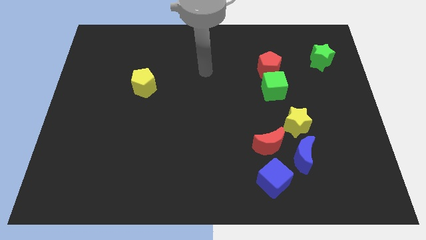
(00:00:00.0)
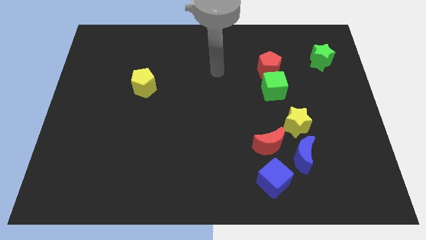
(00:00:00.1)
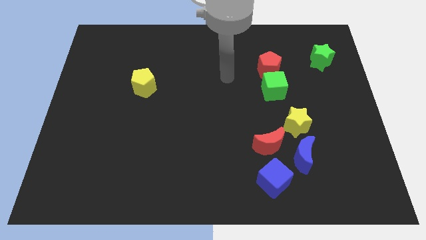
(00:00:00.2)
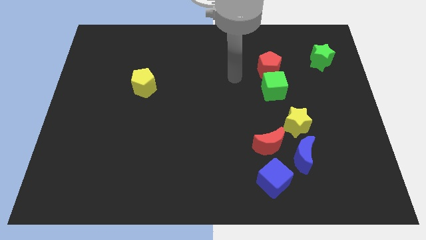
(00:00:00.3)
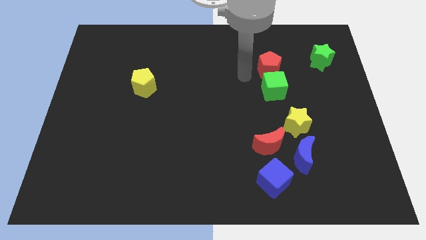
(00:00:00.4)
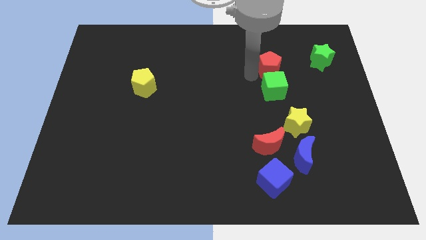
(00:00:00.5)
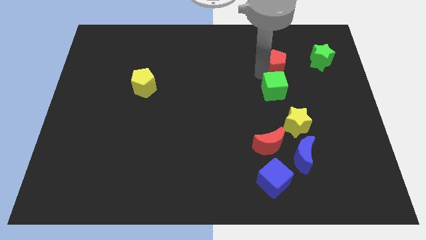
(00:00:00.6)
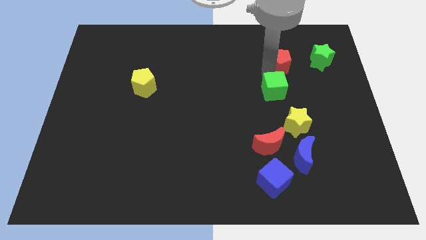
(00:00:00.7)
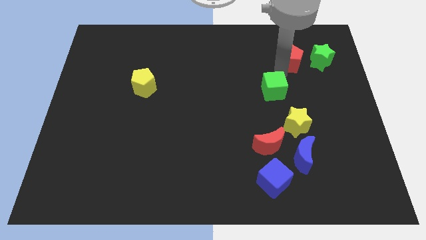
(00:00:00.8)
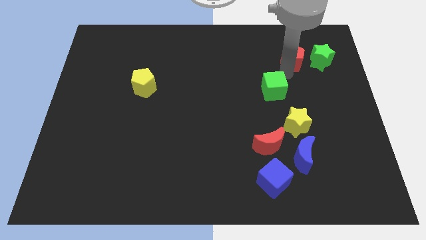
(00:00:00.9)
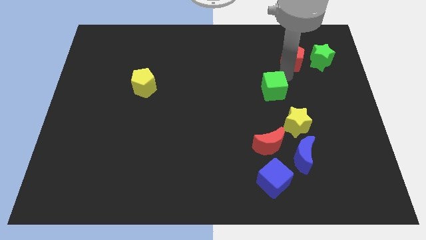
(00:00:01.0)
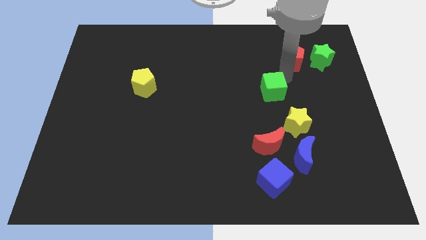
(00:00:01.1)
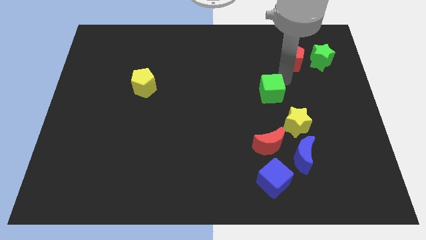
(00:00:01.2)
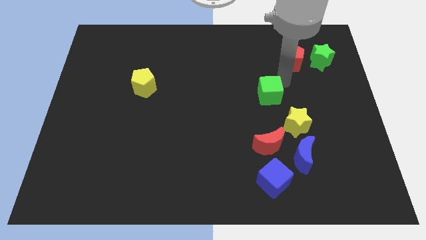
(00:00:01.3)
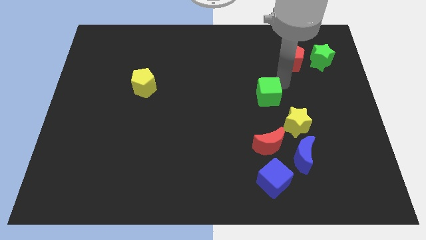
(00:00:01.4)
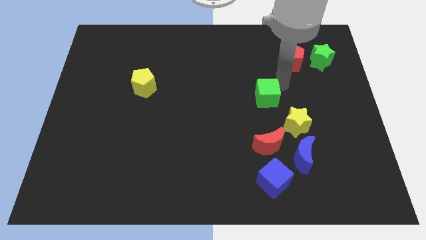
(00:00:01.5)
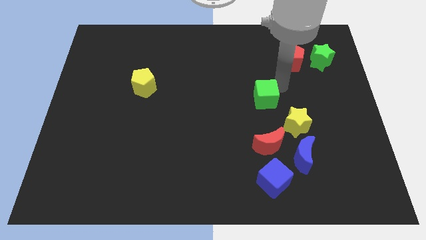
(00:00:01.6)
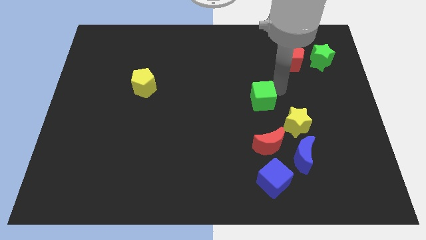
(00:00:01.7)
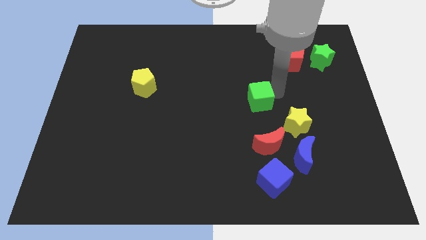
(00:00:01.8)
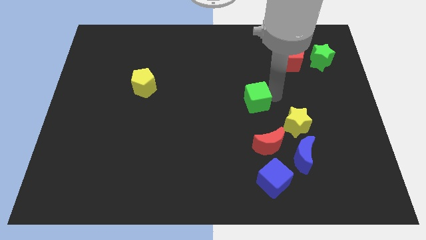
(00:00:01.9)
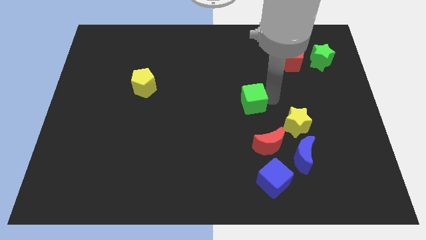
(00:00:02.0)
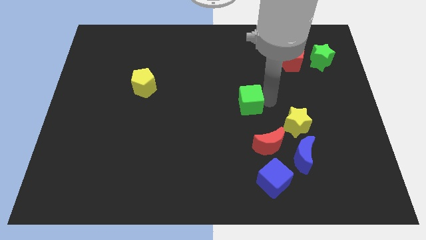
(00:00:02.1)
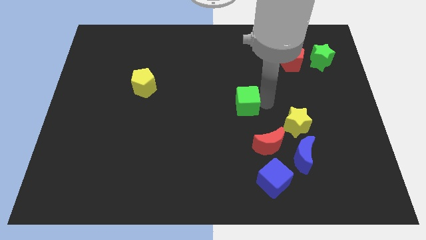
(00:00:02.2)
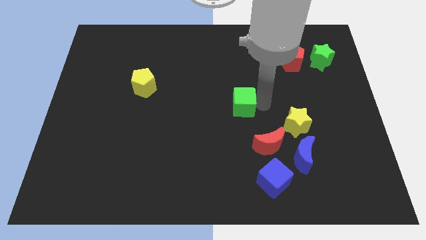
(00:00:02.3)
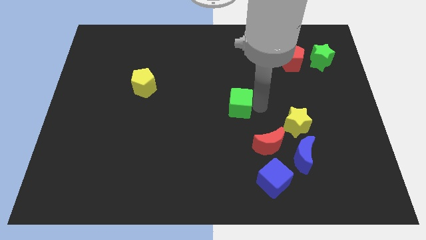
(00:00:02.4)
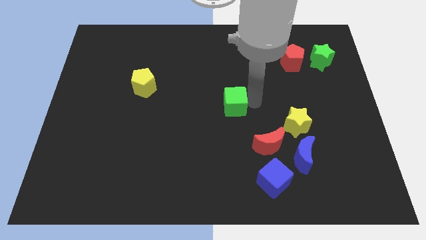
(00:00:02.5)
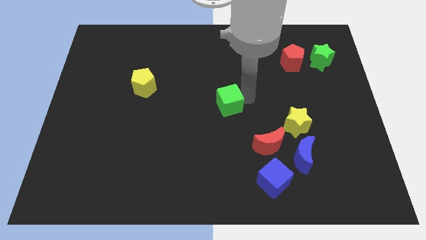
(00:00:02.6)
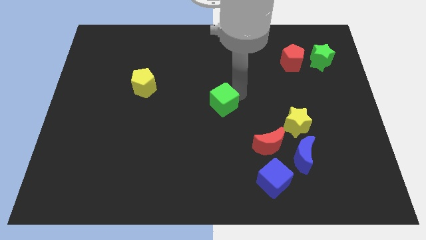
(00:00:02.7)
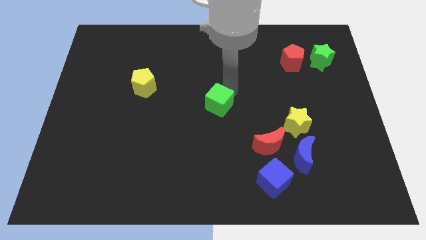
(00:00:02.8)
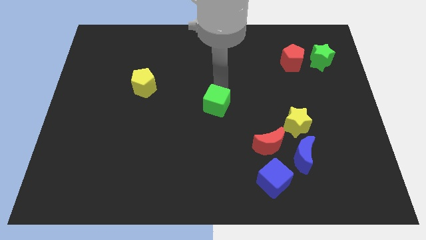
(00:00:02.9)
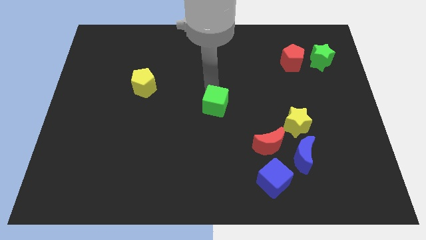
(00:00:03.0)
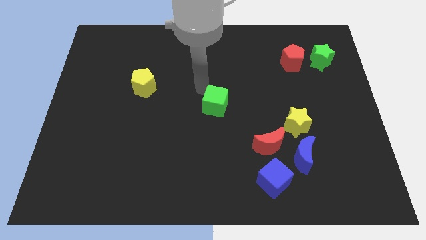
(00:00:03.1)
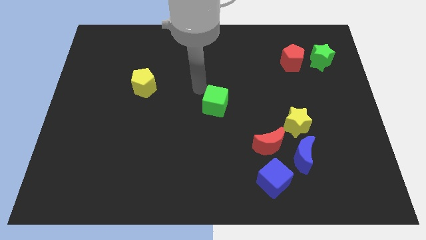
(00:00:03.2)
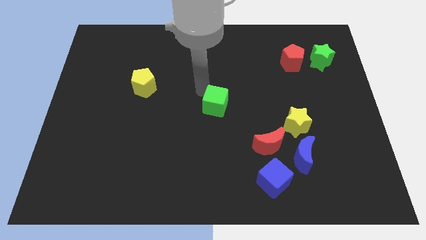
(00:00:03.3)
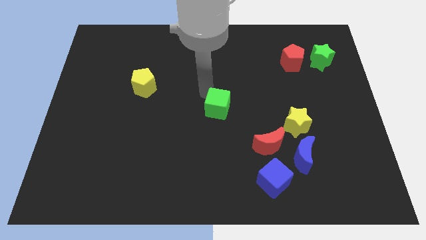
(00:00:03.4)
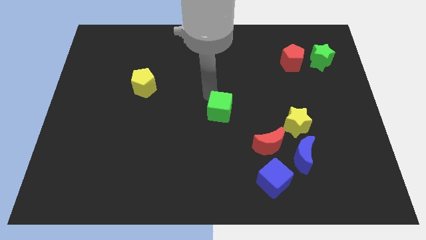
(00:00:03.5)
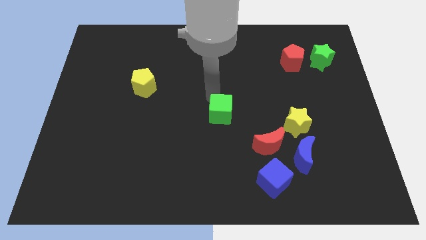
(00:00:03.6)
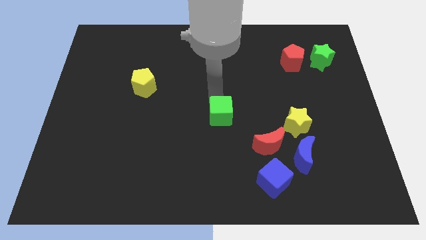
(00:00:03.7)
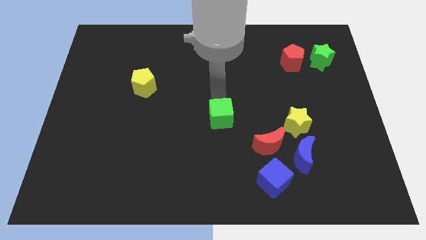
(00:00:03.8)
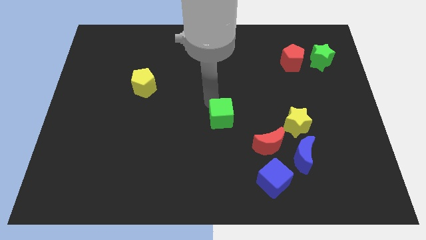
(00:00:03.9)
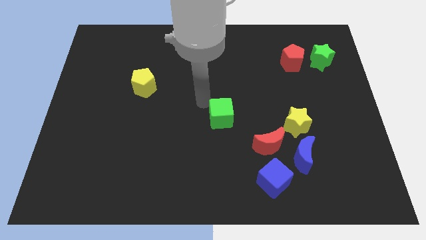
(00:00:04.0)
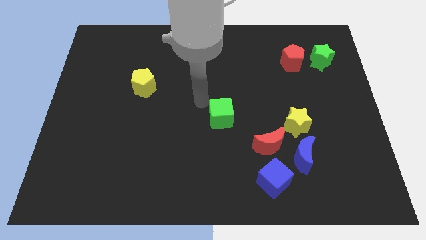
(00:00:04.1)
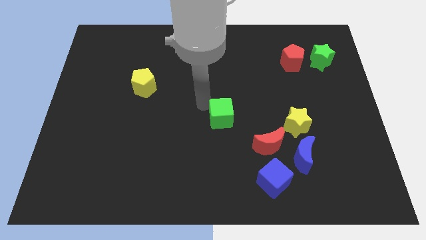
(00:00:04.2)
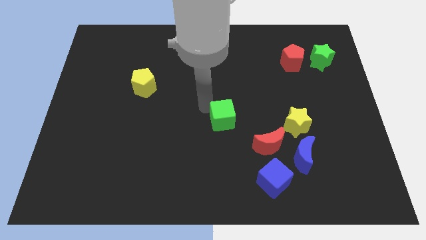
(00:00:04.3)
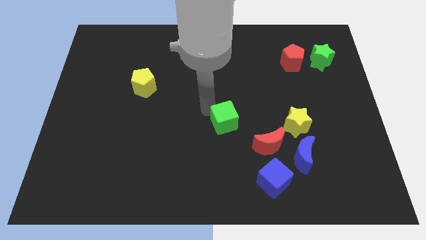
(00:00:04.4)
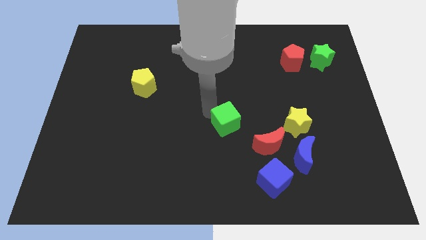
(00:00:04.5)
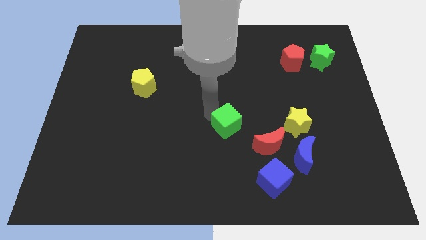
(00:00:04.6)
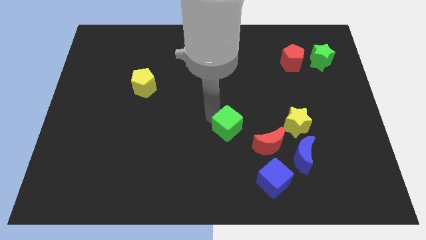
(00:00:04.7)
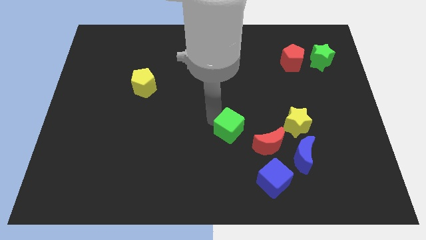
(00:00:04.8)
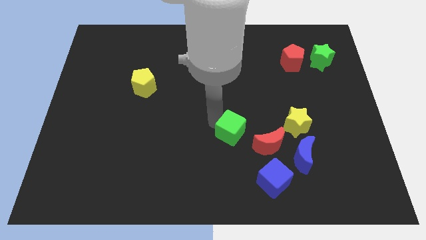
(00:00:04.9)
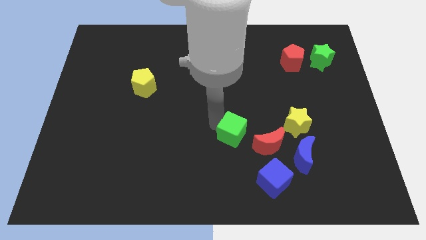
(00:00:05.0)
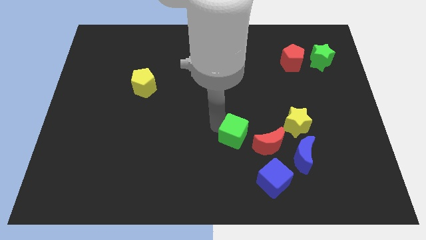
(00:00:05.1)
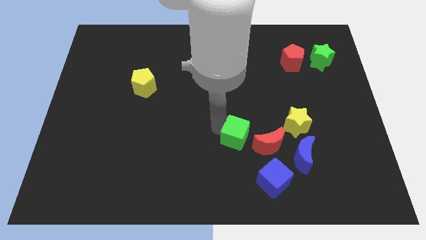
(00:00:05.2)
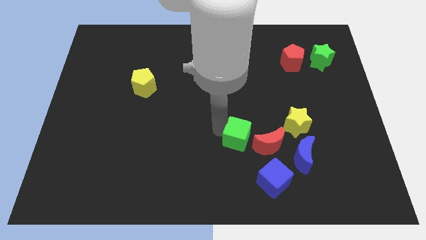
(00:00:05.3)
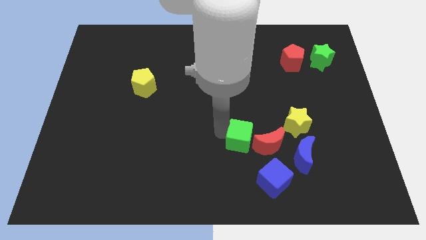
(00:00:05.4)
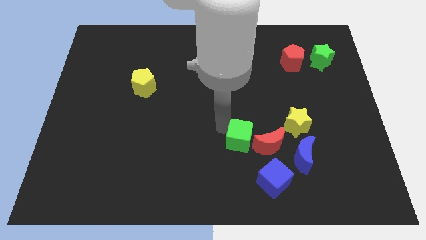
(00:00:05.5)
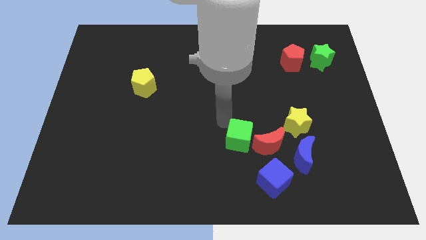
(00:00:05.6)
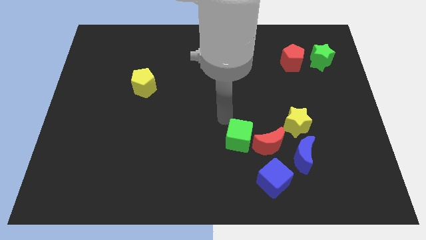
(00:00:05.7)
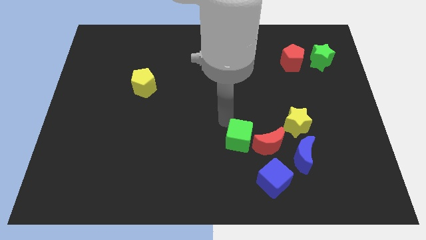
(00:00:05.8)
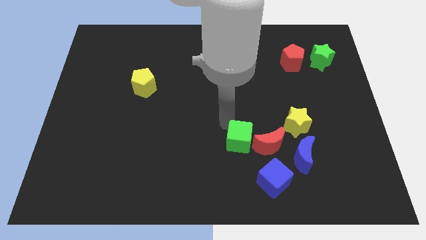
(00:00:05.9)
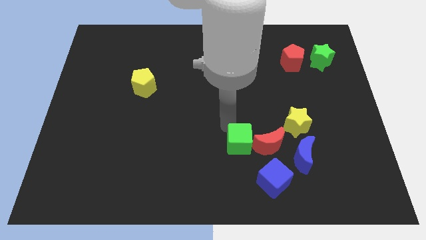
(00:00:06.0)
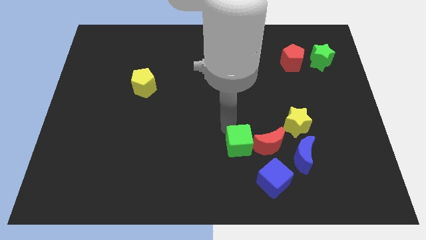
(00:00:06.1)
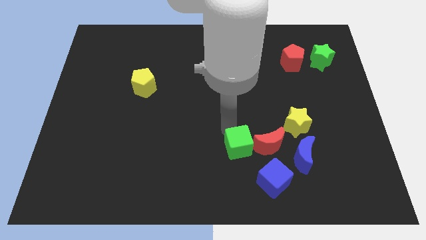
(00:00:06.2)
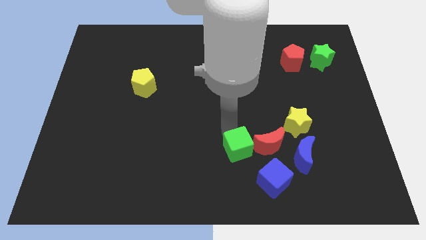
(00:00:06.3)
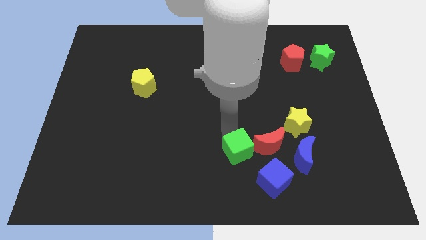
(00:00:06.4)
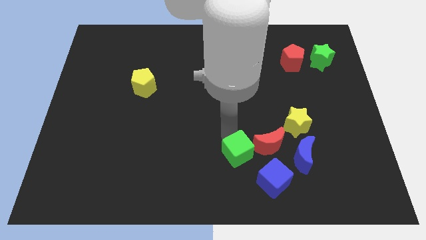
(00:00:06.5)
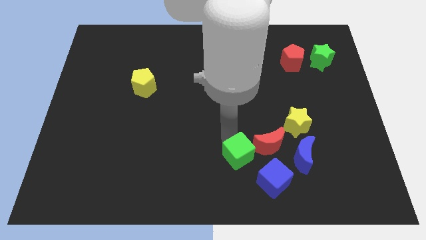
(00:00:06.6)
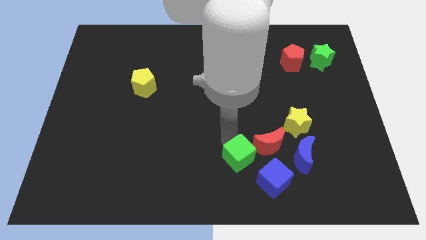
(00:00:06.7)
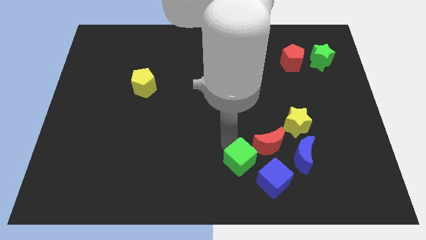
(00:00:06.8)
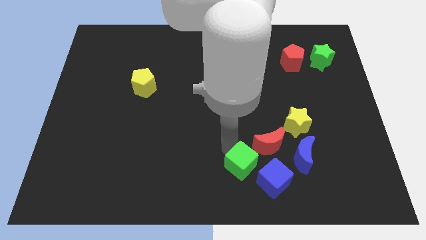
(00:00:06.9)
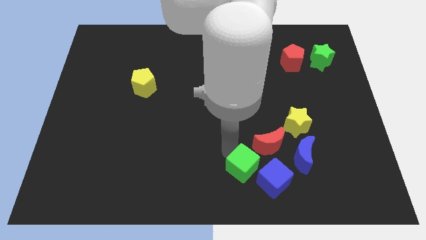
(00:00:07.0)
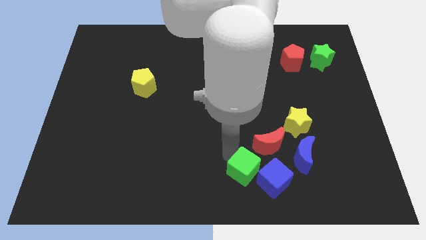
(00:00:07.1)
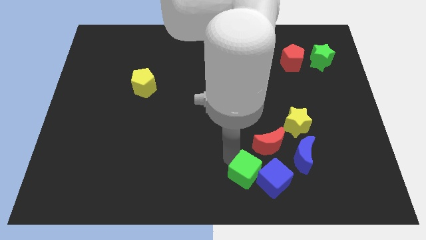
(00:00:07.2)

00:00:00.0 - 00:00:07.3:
slide the green cube next to the blue cube

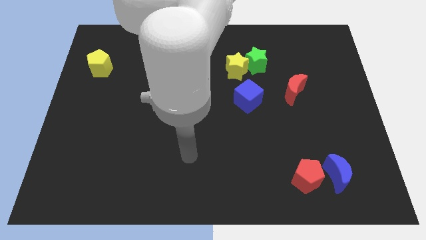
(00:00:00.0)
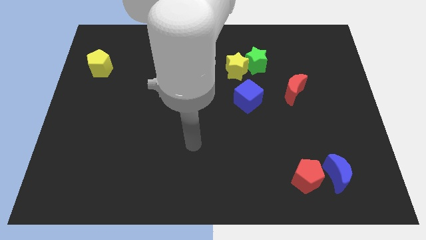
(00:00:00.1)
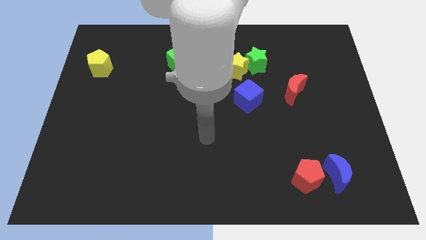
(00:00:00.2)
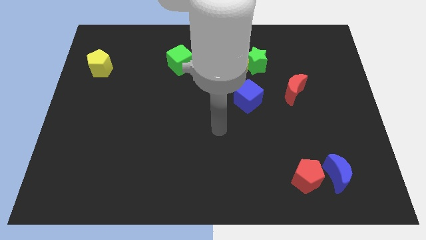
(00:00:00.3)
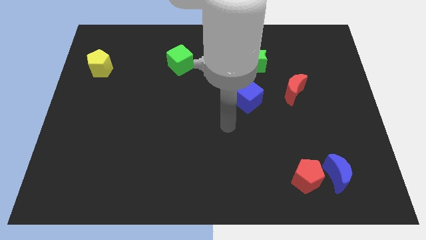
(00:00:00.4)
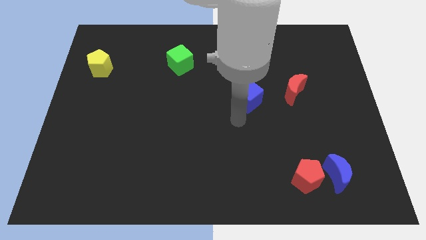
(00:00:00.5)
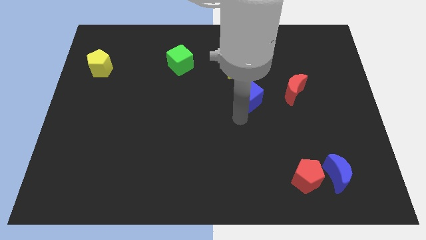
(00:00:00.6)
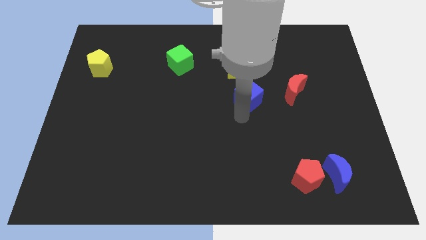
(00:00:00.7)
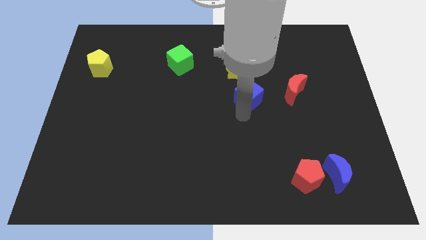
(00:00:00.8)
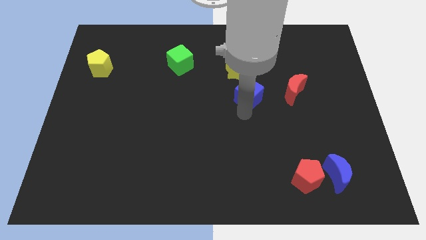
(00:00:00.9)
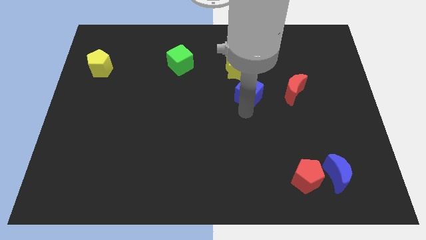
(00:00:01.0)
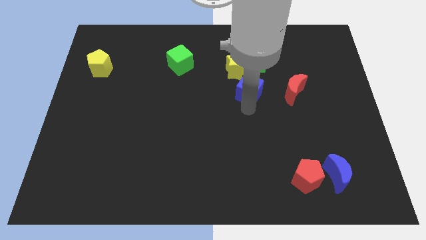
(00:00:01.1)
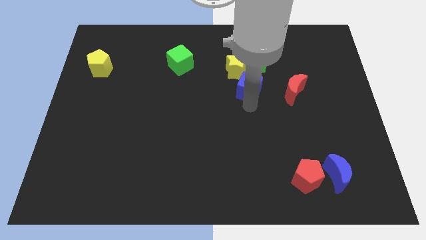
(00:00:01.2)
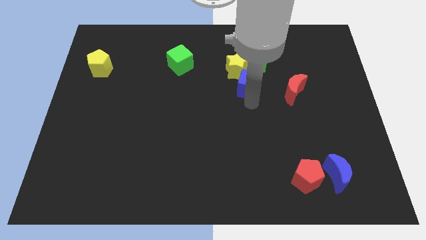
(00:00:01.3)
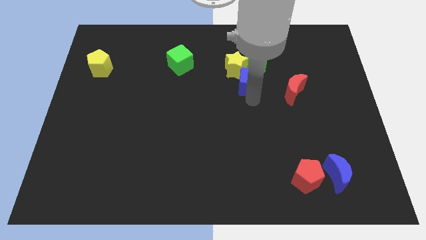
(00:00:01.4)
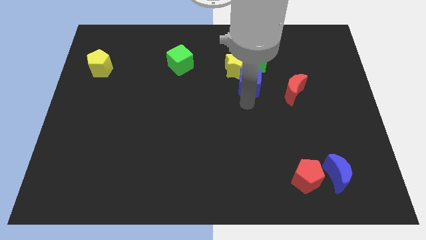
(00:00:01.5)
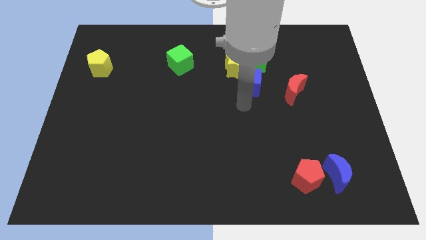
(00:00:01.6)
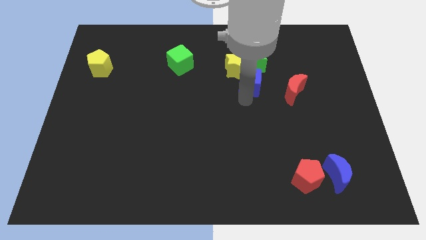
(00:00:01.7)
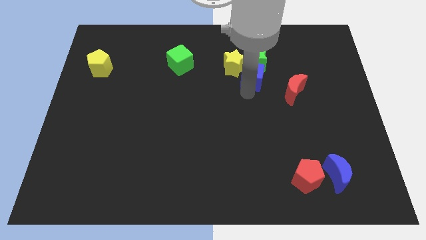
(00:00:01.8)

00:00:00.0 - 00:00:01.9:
slide the blue cube close to the green star
